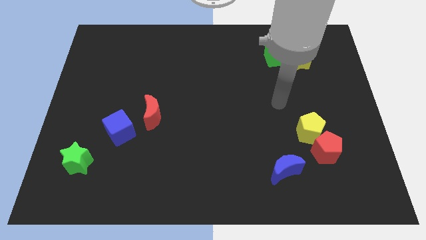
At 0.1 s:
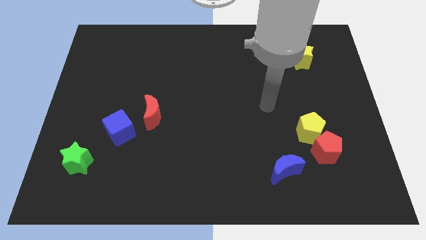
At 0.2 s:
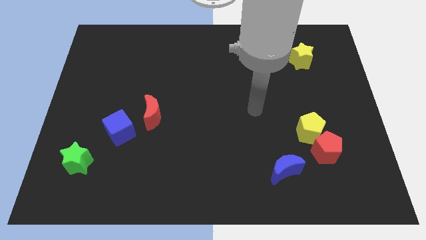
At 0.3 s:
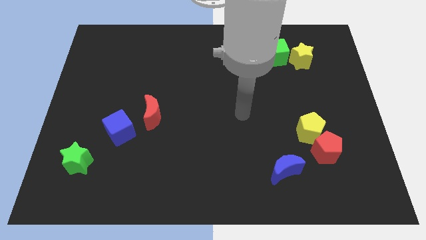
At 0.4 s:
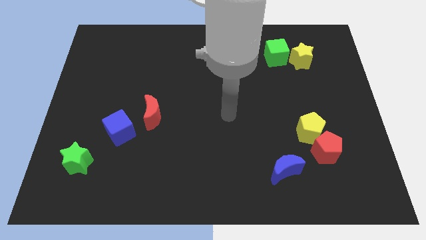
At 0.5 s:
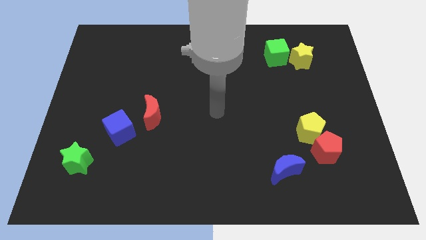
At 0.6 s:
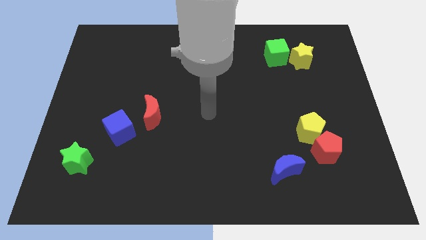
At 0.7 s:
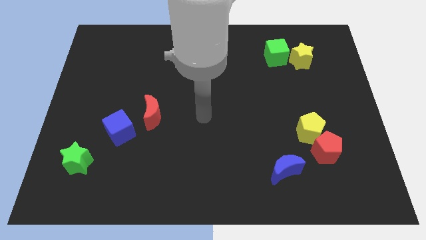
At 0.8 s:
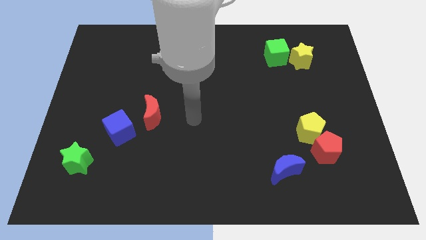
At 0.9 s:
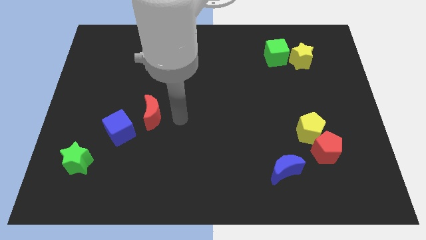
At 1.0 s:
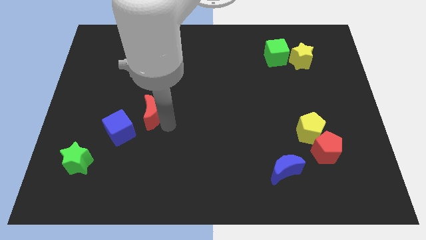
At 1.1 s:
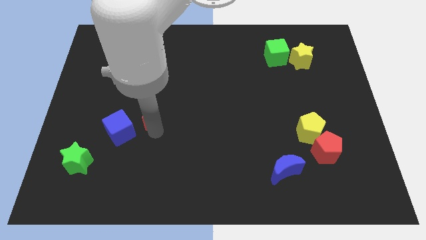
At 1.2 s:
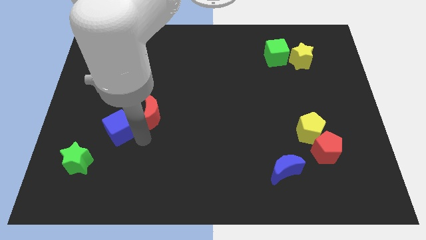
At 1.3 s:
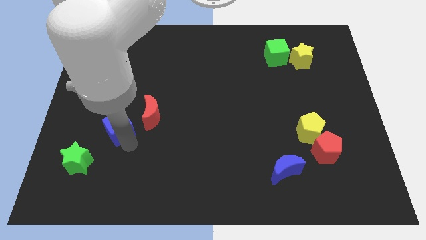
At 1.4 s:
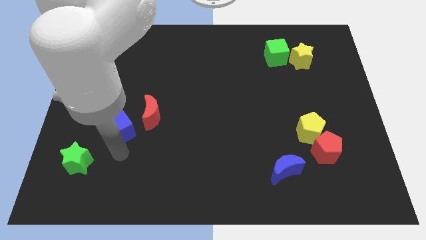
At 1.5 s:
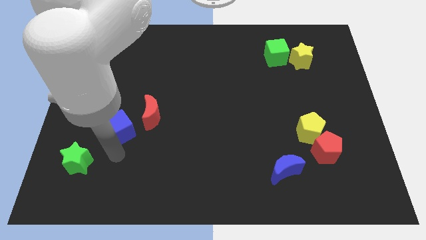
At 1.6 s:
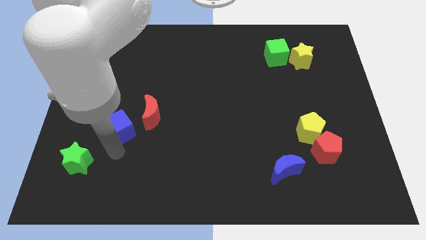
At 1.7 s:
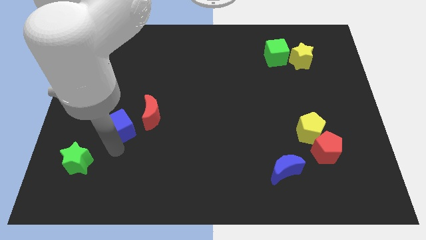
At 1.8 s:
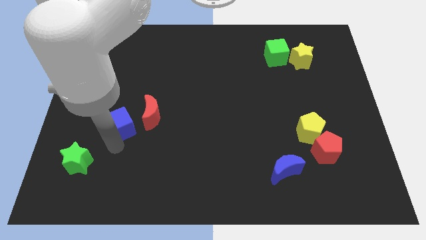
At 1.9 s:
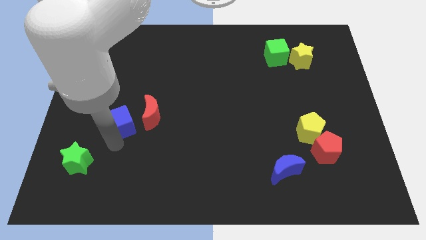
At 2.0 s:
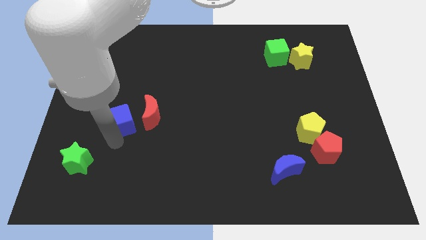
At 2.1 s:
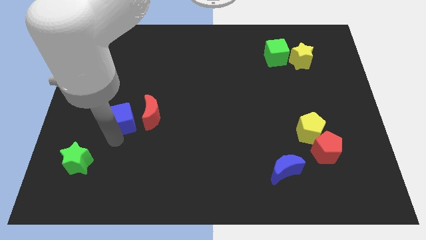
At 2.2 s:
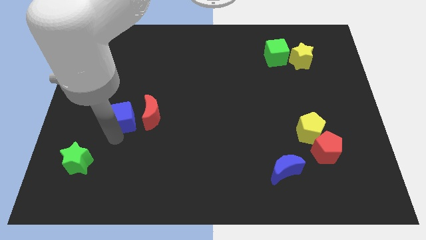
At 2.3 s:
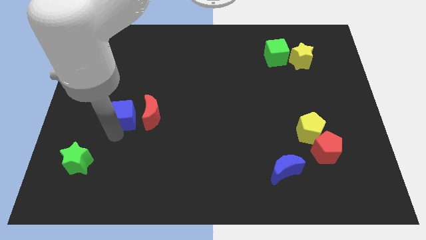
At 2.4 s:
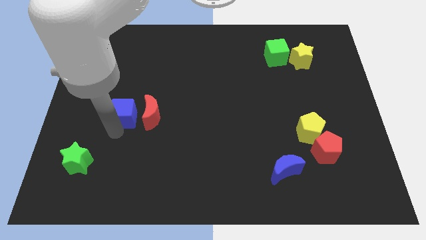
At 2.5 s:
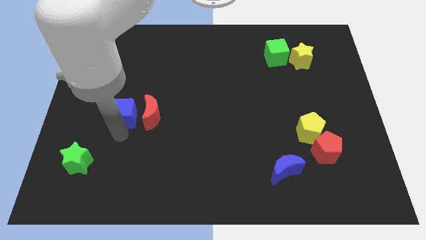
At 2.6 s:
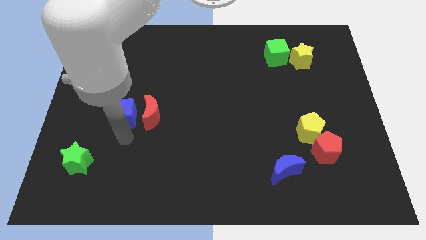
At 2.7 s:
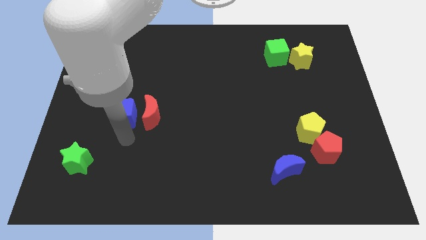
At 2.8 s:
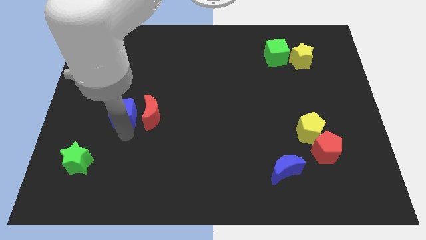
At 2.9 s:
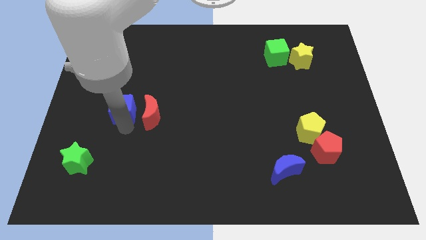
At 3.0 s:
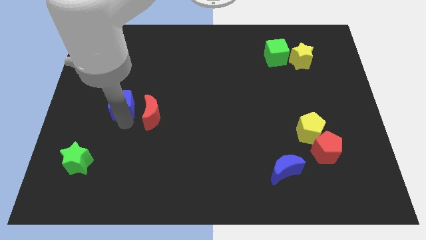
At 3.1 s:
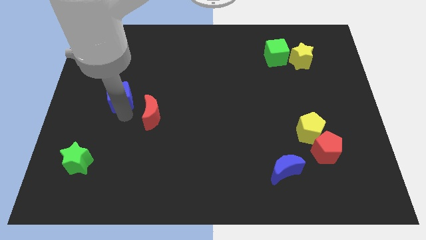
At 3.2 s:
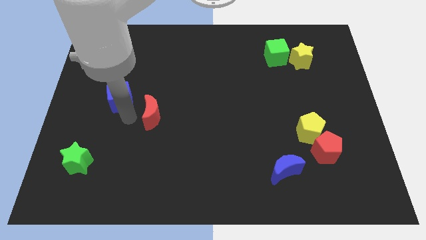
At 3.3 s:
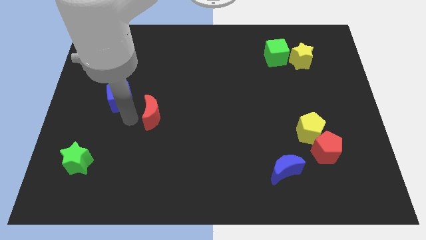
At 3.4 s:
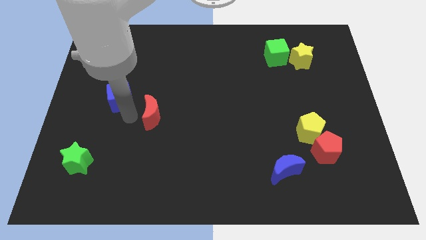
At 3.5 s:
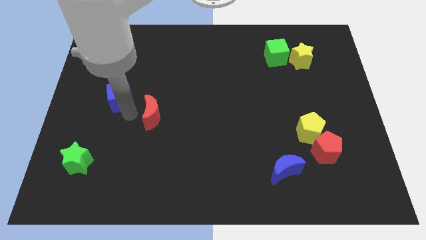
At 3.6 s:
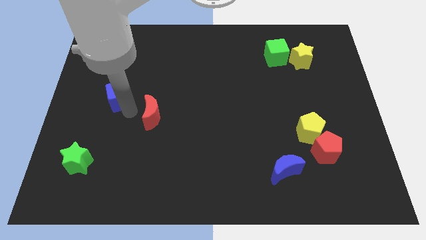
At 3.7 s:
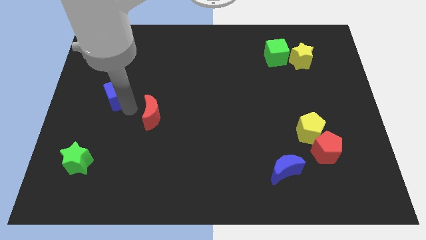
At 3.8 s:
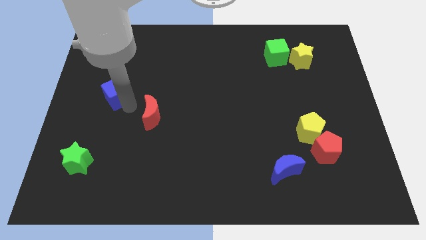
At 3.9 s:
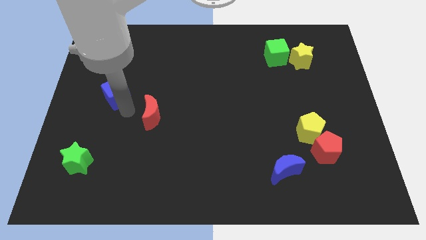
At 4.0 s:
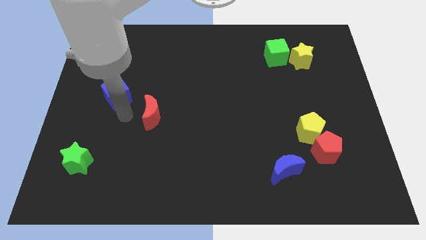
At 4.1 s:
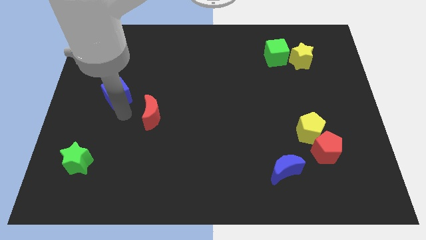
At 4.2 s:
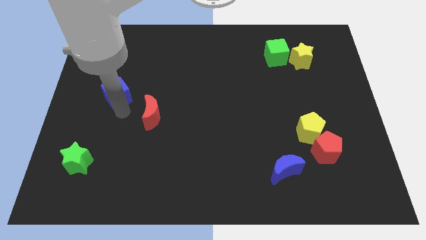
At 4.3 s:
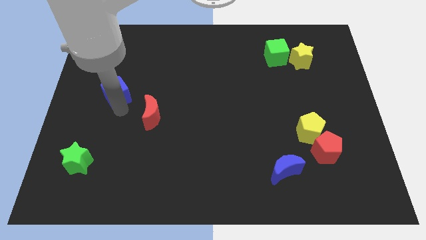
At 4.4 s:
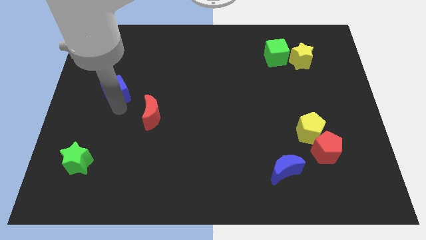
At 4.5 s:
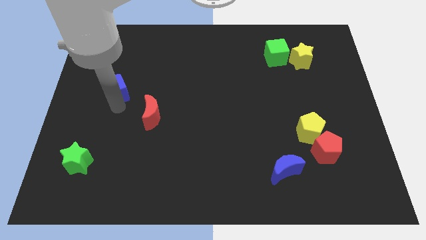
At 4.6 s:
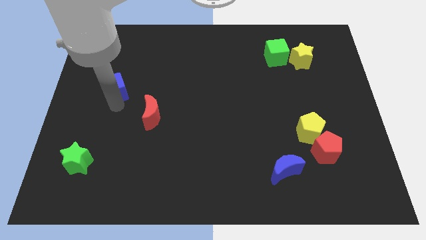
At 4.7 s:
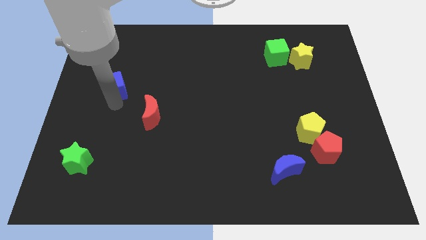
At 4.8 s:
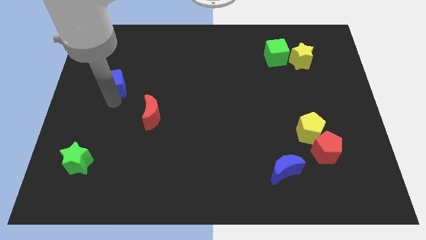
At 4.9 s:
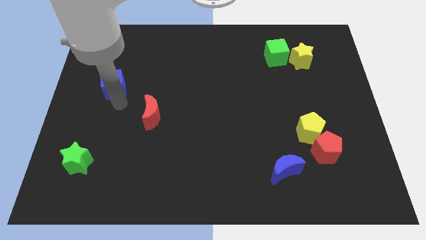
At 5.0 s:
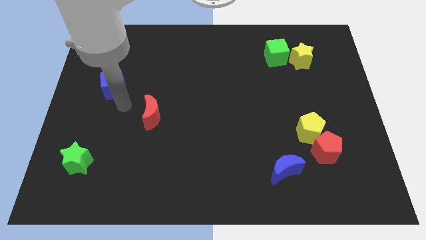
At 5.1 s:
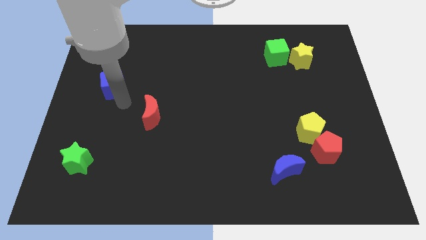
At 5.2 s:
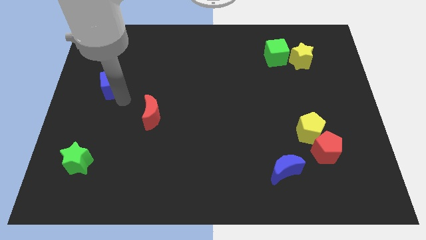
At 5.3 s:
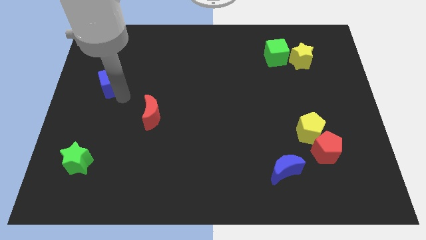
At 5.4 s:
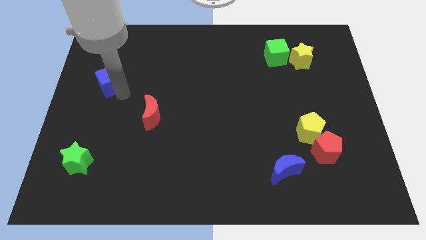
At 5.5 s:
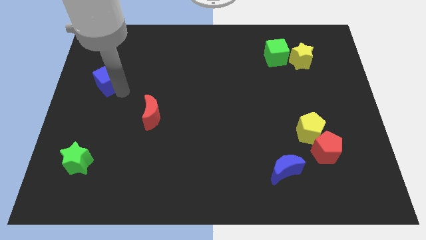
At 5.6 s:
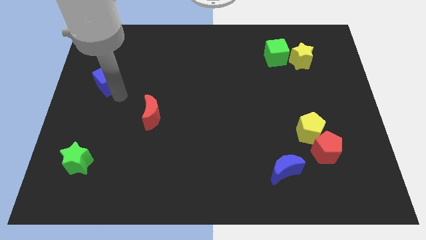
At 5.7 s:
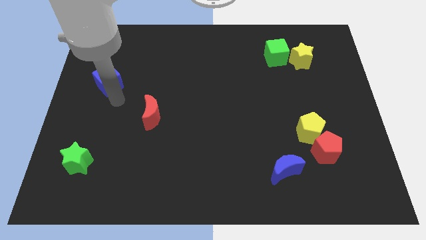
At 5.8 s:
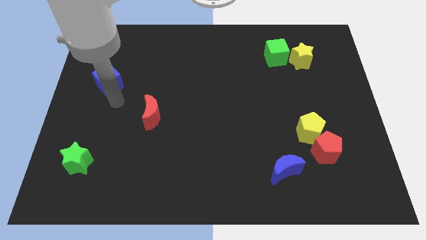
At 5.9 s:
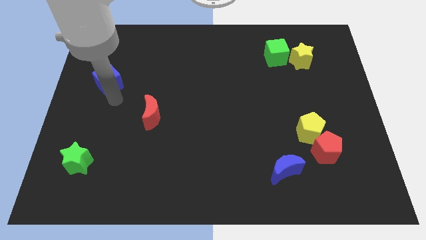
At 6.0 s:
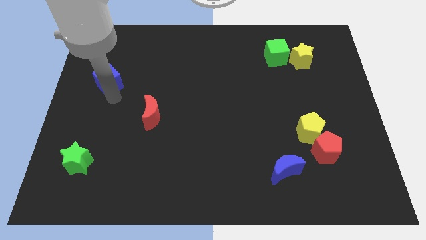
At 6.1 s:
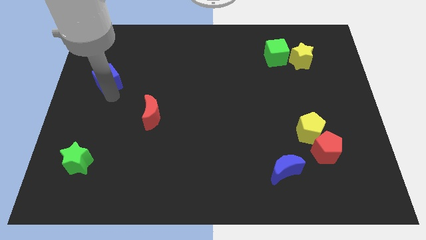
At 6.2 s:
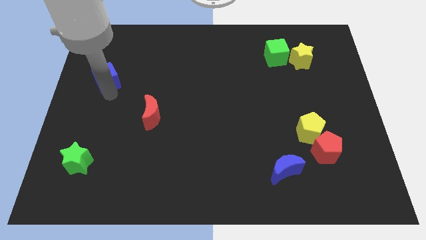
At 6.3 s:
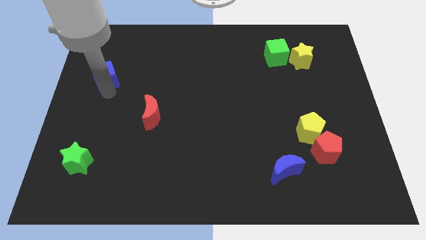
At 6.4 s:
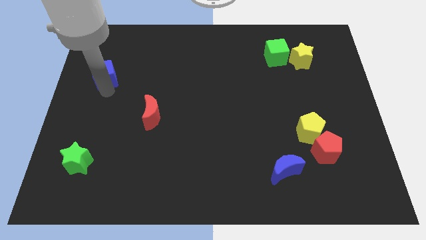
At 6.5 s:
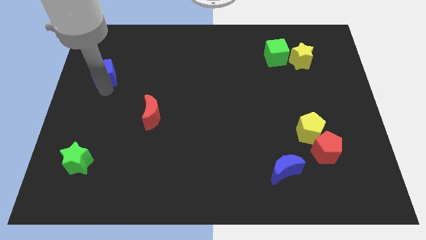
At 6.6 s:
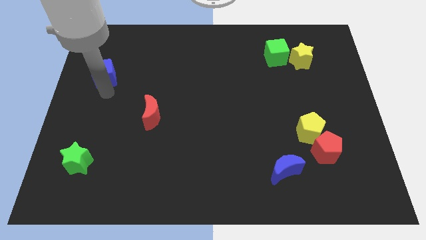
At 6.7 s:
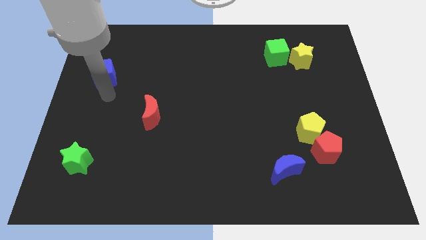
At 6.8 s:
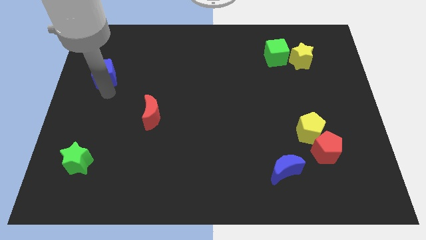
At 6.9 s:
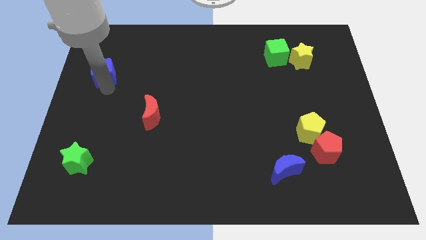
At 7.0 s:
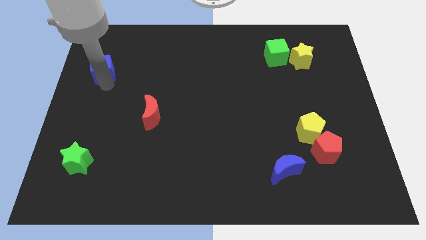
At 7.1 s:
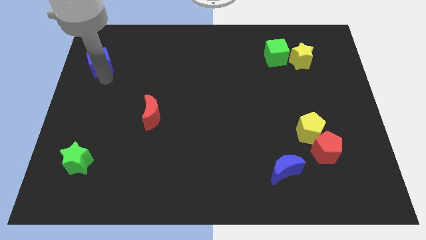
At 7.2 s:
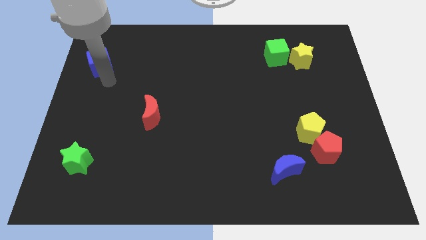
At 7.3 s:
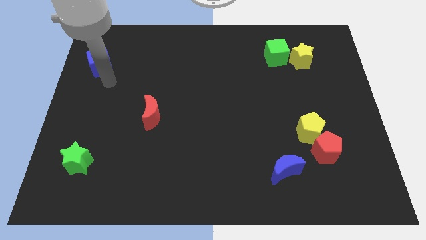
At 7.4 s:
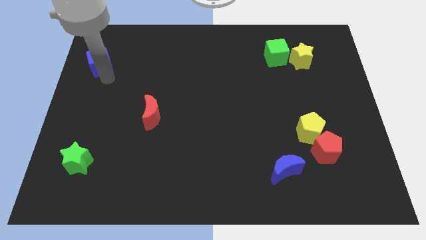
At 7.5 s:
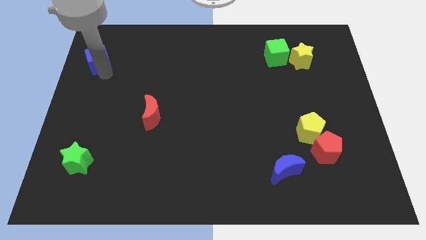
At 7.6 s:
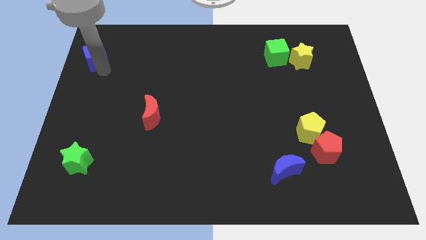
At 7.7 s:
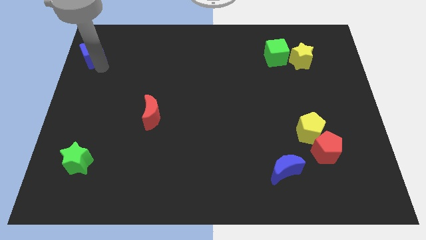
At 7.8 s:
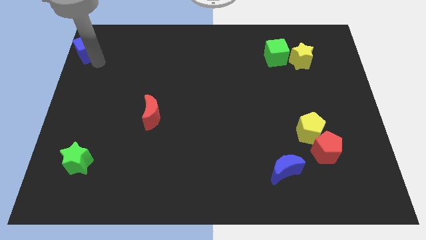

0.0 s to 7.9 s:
slide the blue cube to the top left of the board
